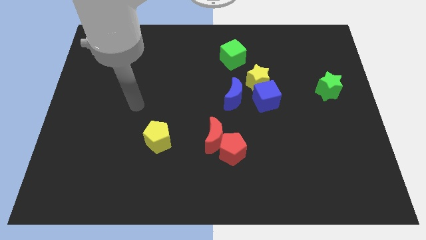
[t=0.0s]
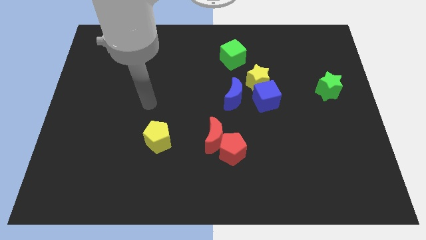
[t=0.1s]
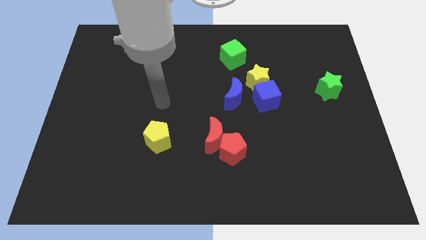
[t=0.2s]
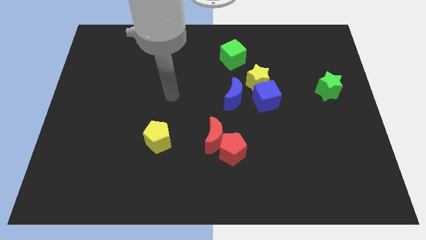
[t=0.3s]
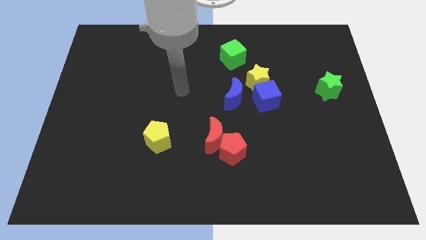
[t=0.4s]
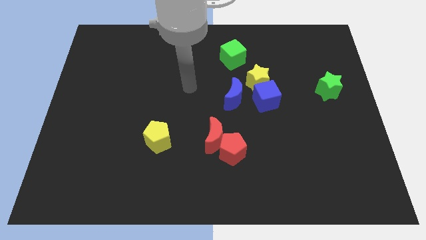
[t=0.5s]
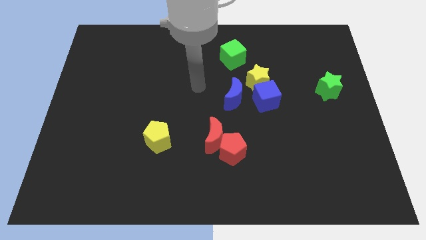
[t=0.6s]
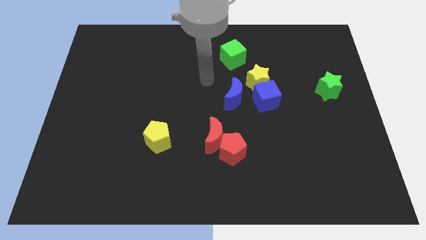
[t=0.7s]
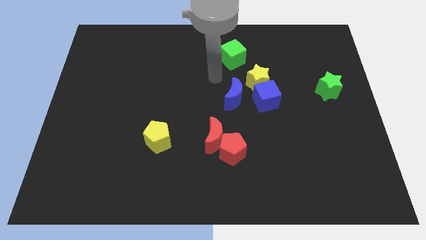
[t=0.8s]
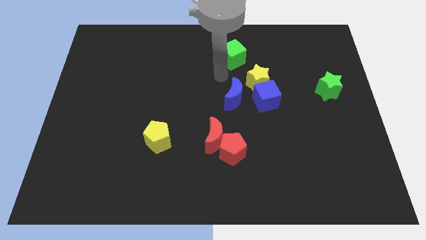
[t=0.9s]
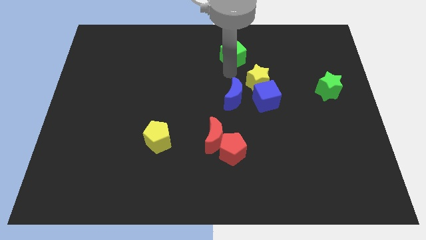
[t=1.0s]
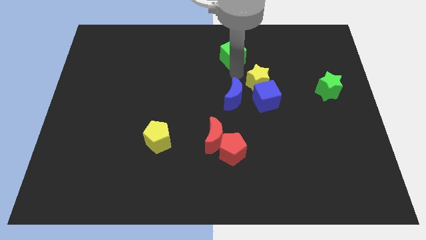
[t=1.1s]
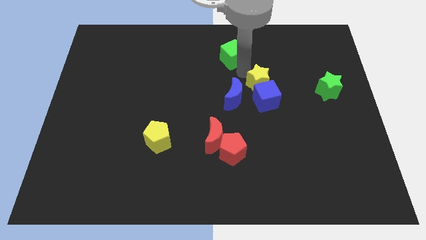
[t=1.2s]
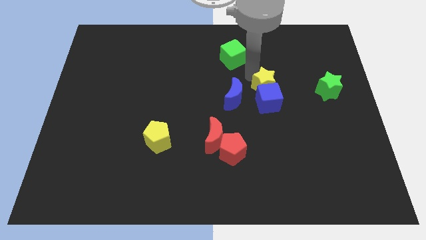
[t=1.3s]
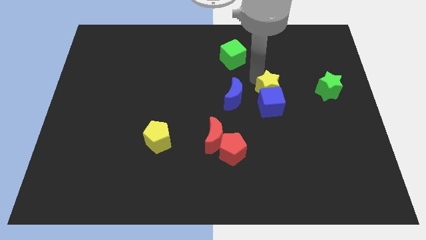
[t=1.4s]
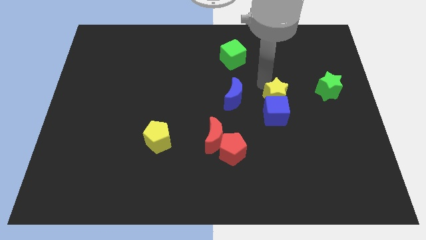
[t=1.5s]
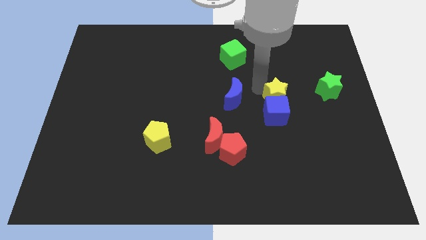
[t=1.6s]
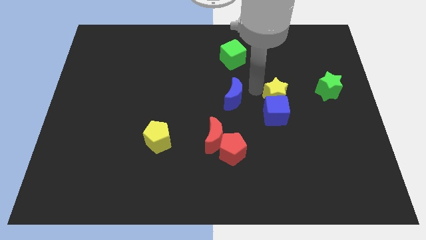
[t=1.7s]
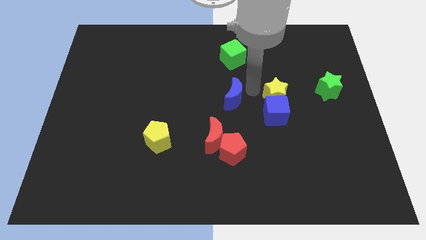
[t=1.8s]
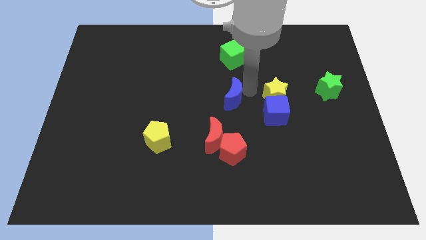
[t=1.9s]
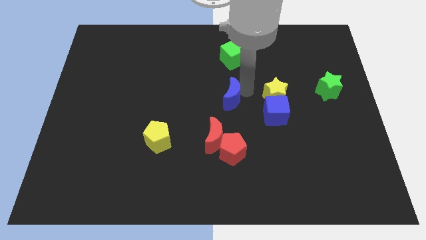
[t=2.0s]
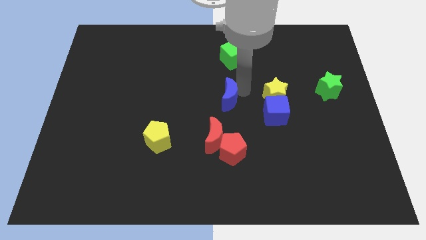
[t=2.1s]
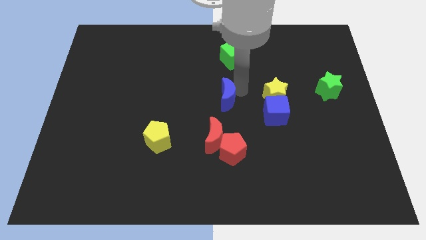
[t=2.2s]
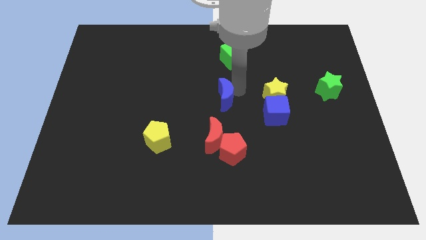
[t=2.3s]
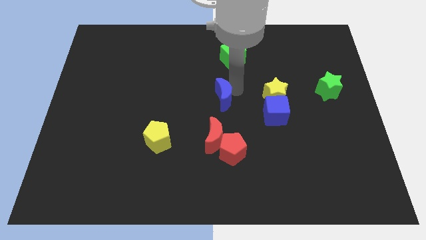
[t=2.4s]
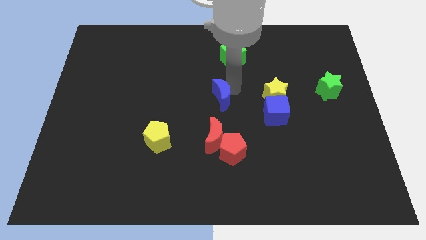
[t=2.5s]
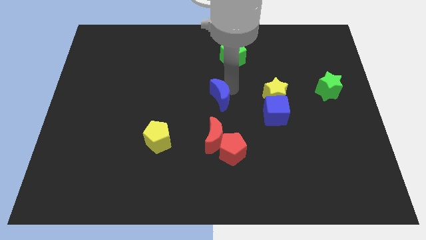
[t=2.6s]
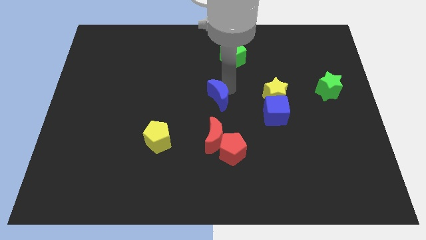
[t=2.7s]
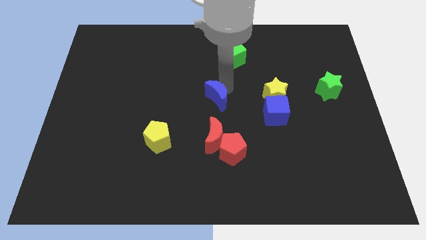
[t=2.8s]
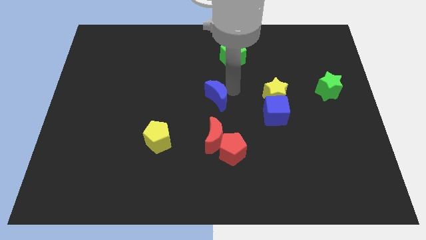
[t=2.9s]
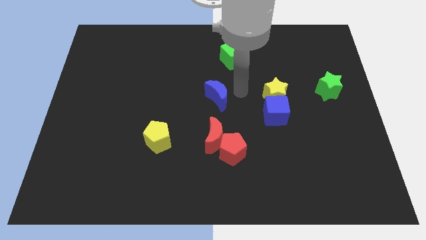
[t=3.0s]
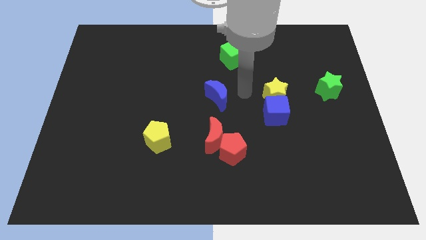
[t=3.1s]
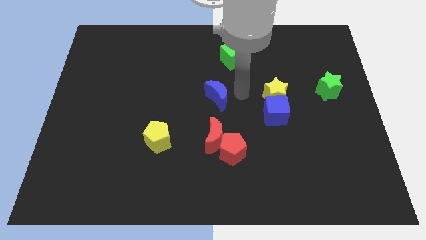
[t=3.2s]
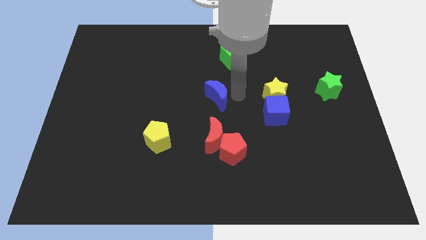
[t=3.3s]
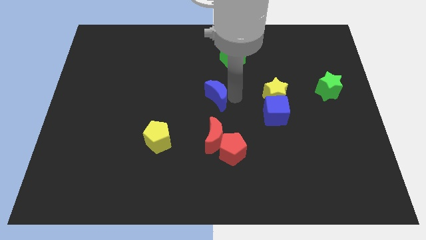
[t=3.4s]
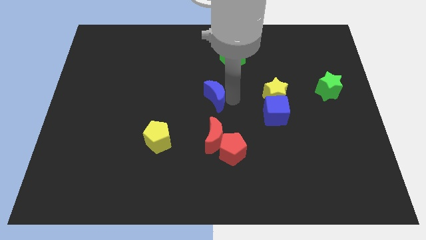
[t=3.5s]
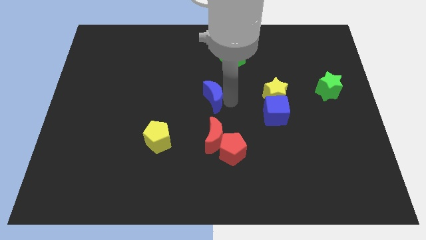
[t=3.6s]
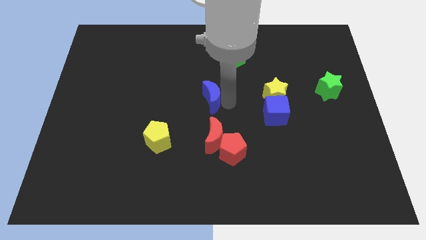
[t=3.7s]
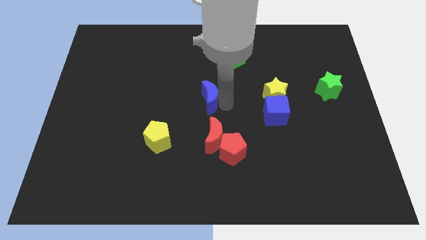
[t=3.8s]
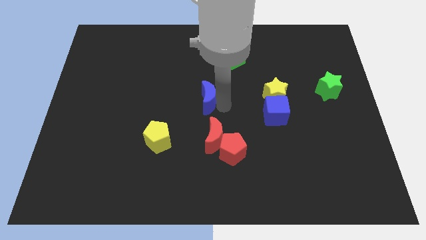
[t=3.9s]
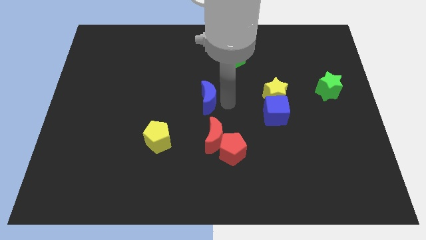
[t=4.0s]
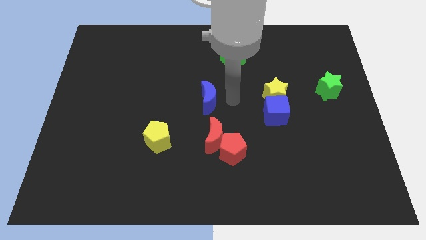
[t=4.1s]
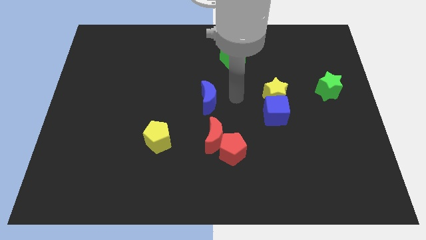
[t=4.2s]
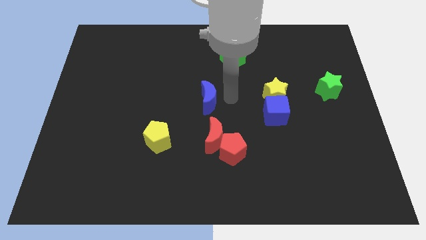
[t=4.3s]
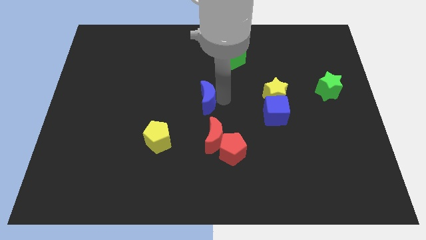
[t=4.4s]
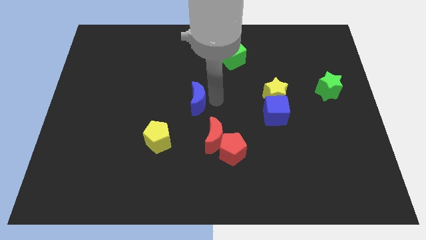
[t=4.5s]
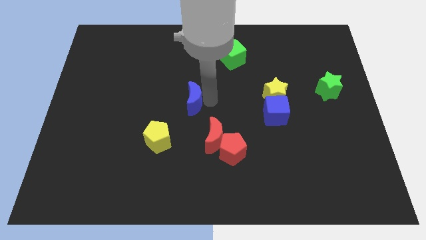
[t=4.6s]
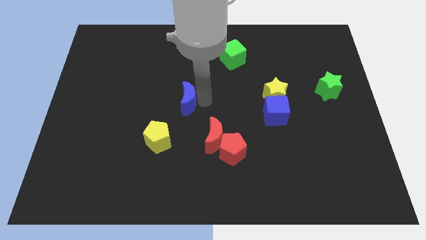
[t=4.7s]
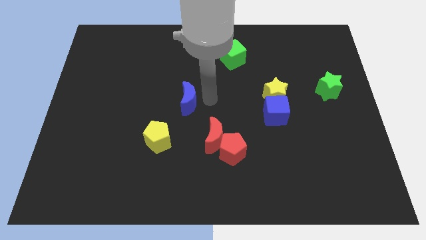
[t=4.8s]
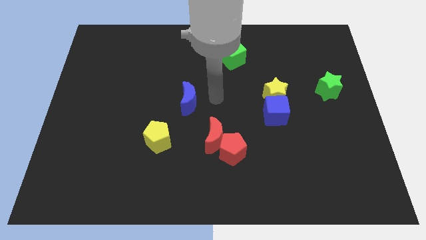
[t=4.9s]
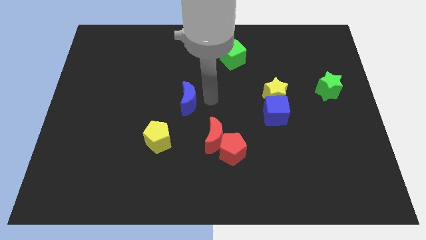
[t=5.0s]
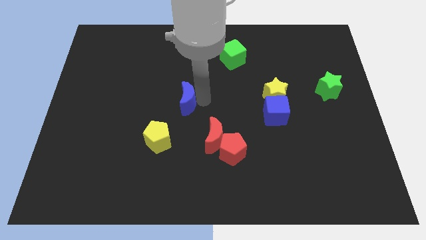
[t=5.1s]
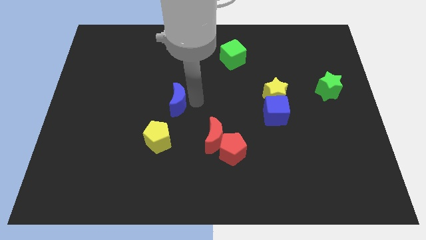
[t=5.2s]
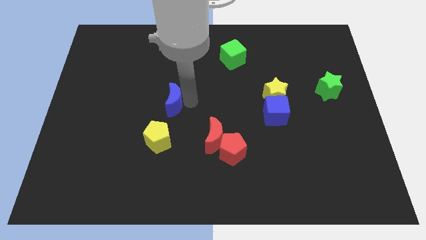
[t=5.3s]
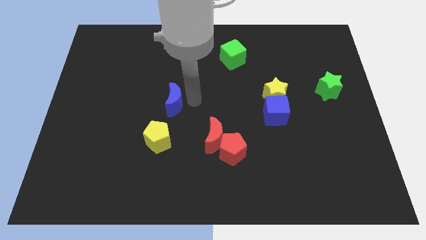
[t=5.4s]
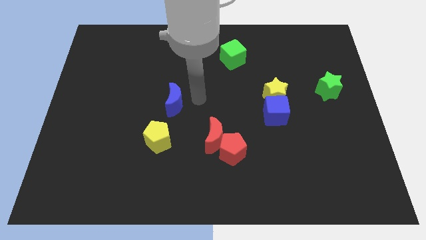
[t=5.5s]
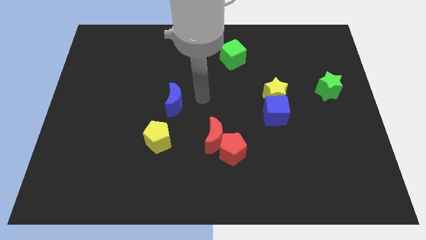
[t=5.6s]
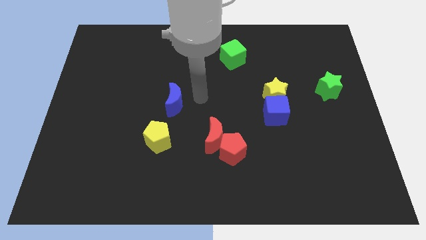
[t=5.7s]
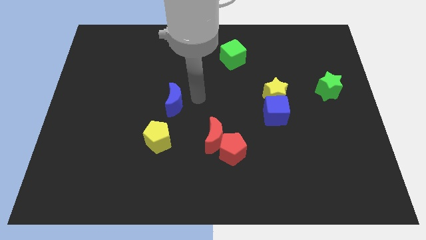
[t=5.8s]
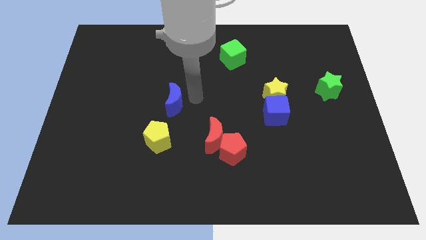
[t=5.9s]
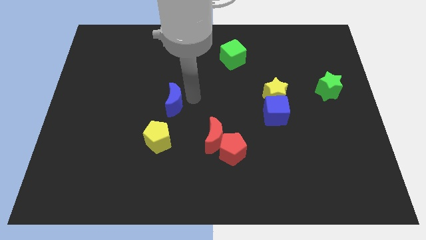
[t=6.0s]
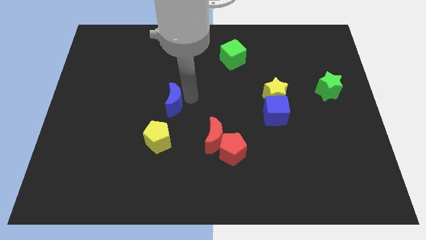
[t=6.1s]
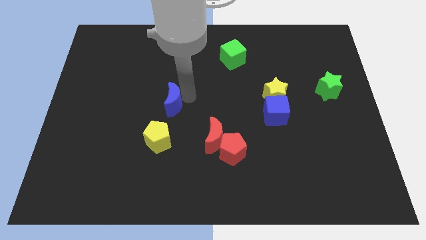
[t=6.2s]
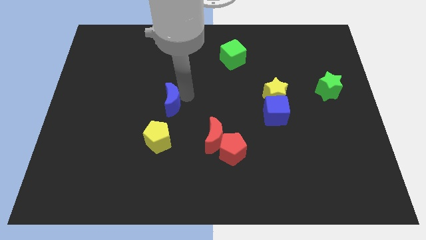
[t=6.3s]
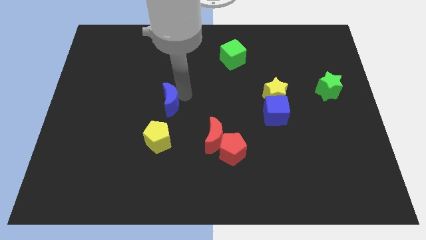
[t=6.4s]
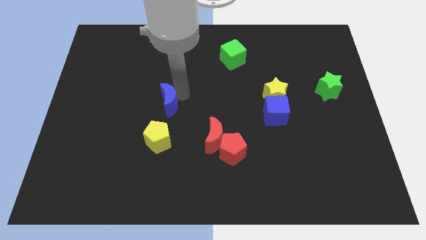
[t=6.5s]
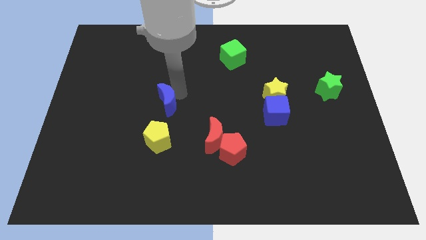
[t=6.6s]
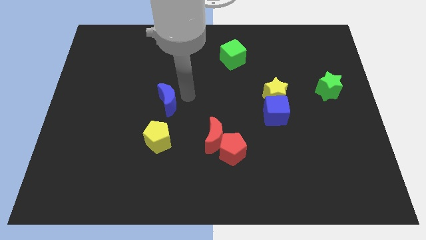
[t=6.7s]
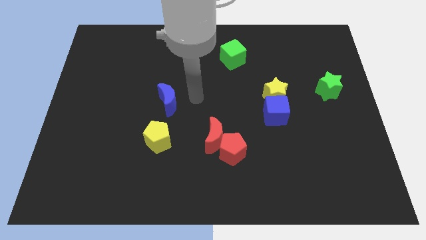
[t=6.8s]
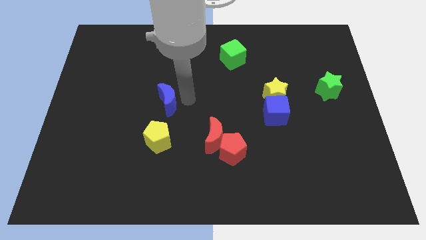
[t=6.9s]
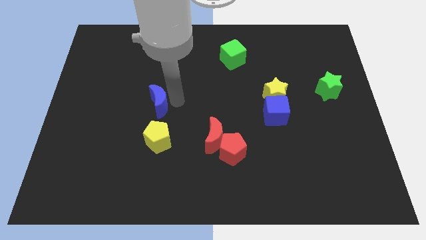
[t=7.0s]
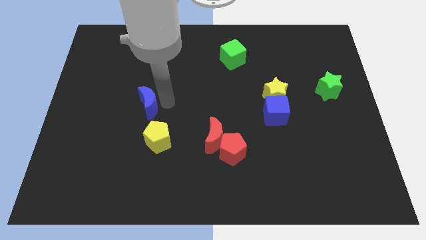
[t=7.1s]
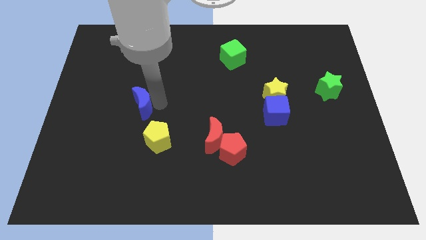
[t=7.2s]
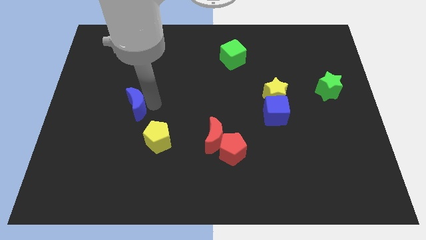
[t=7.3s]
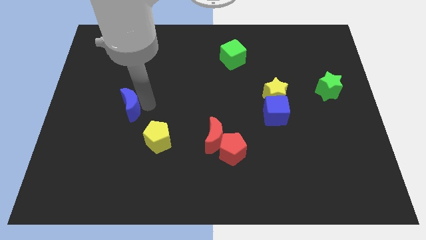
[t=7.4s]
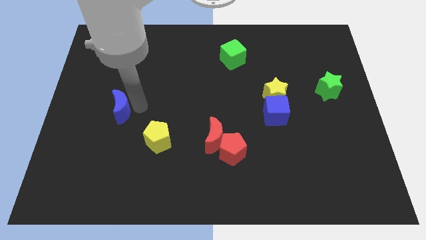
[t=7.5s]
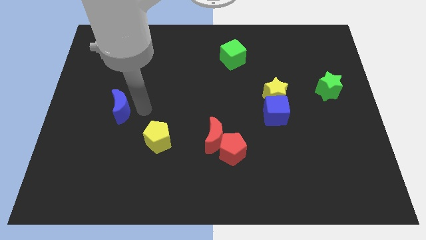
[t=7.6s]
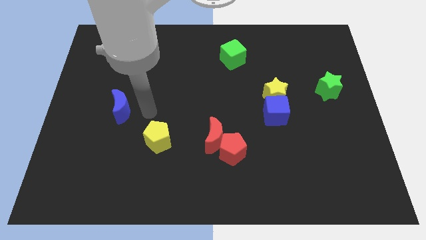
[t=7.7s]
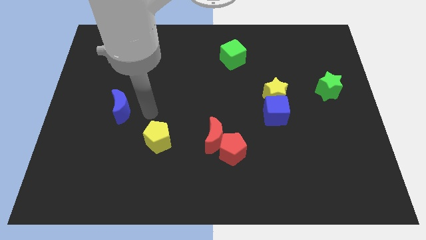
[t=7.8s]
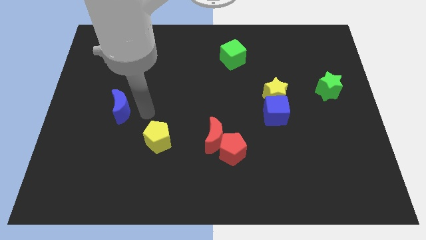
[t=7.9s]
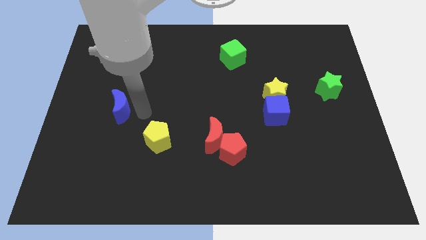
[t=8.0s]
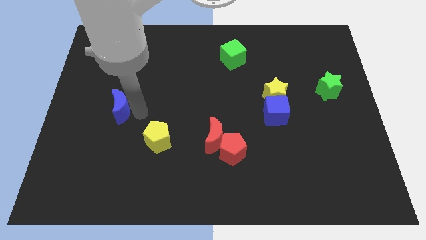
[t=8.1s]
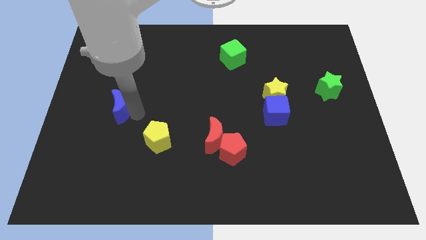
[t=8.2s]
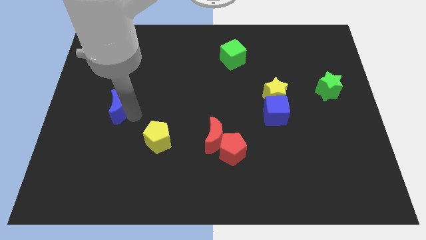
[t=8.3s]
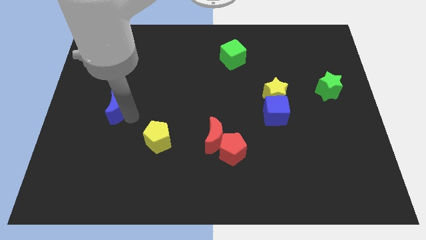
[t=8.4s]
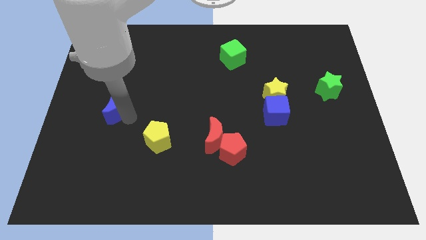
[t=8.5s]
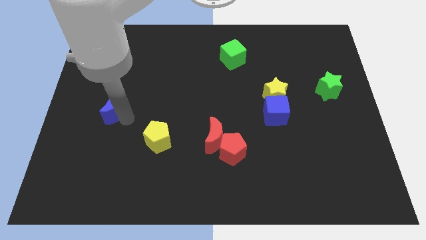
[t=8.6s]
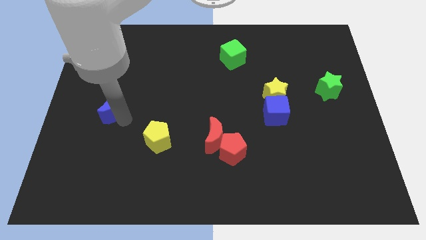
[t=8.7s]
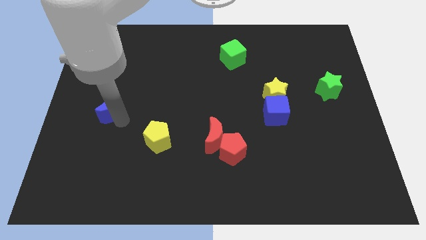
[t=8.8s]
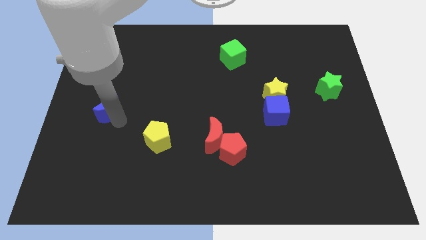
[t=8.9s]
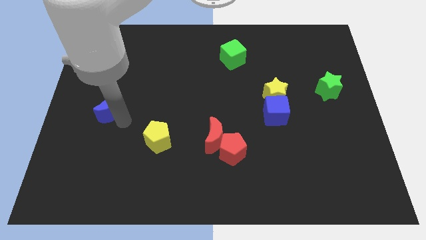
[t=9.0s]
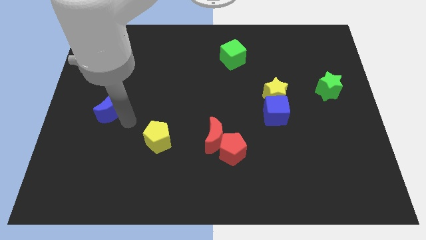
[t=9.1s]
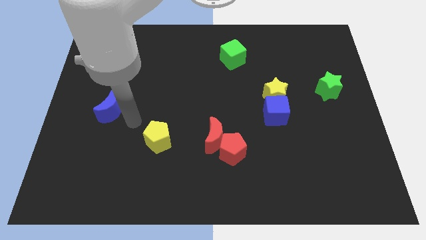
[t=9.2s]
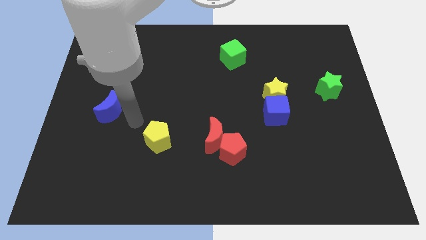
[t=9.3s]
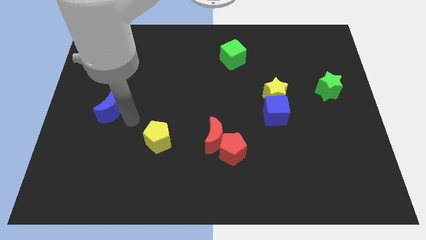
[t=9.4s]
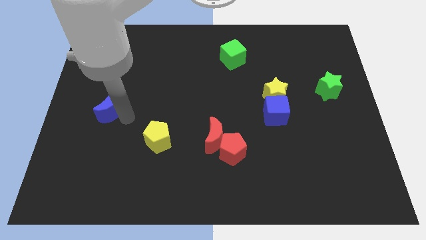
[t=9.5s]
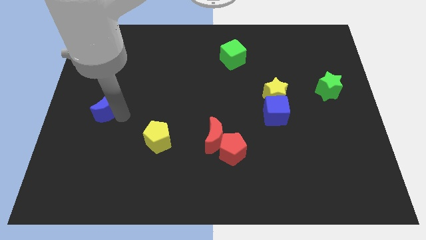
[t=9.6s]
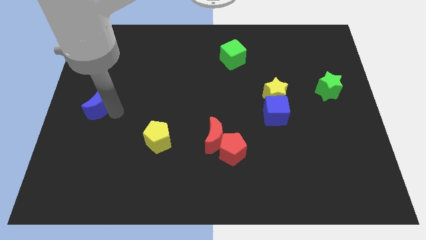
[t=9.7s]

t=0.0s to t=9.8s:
push the blue moon to the left side
